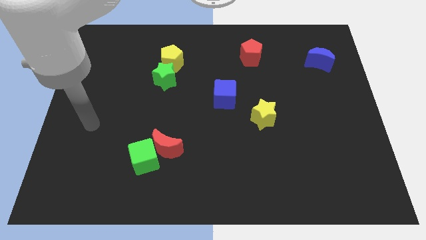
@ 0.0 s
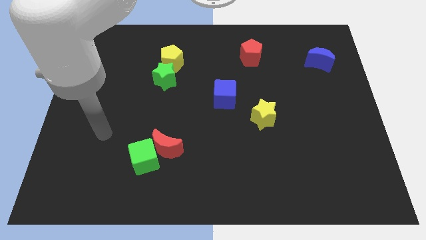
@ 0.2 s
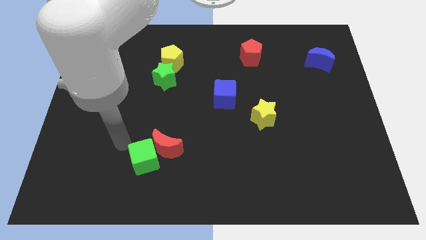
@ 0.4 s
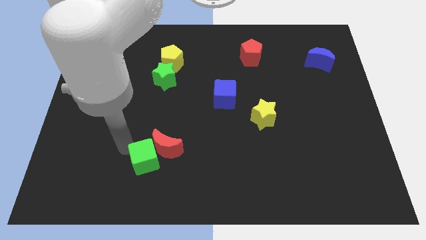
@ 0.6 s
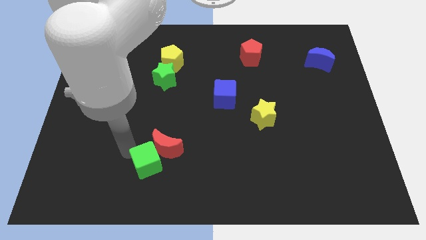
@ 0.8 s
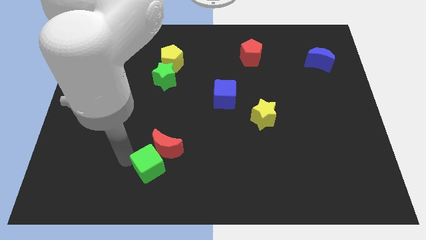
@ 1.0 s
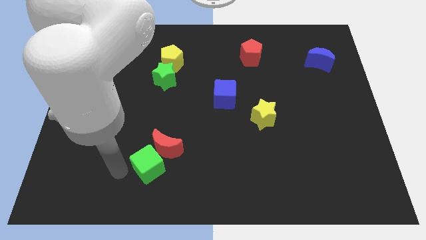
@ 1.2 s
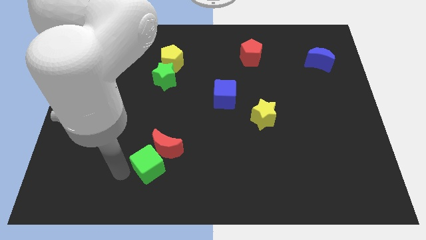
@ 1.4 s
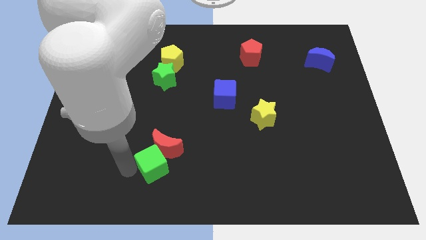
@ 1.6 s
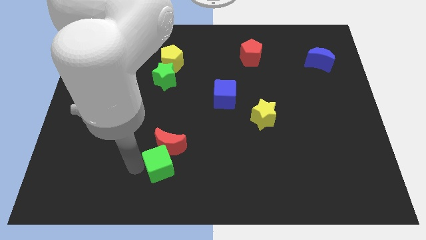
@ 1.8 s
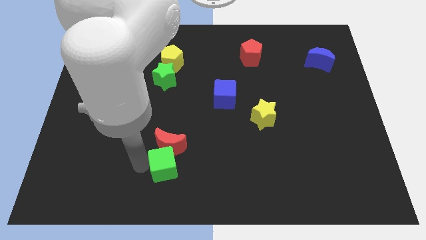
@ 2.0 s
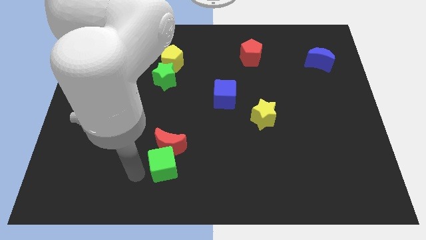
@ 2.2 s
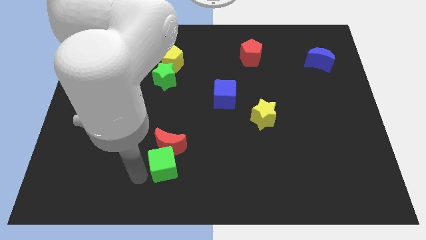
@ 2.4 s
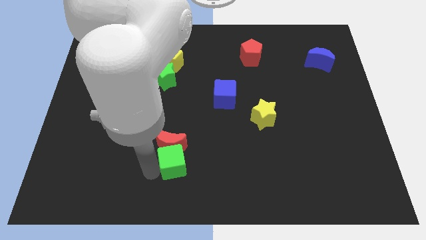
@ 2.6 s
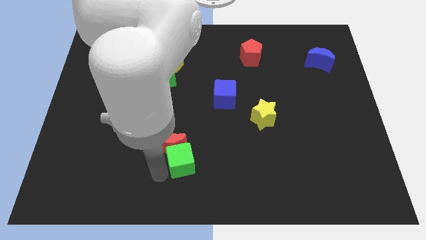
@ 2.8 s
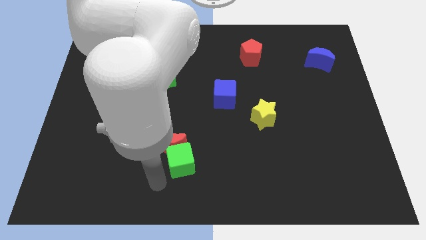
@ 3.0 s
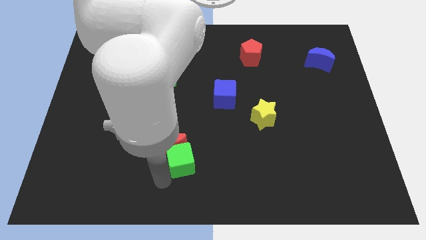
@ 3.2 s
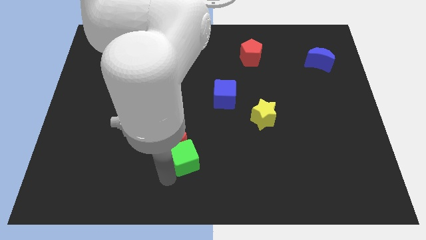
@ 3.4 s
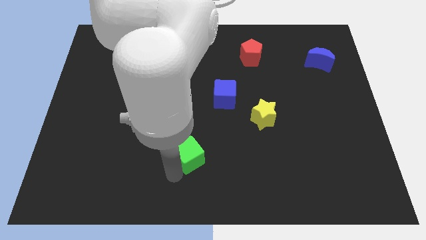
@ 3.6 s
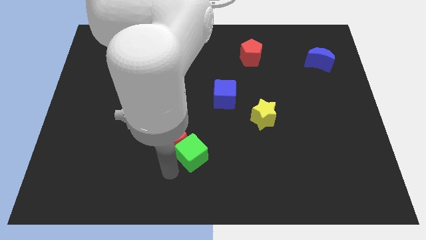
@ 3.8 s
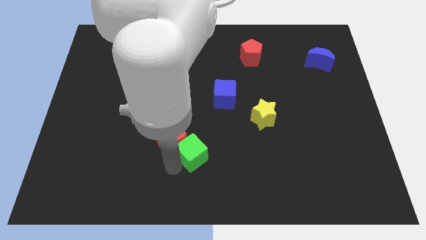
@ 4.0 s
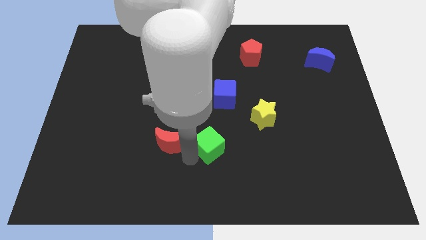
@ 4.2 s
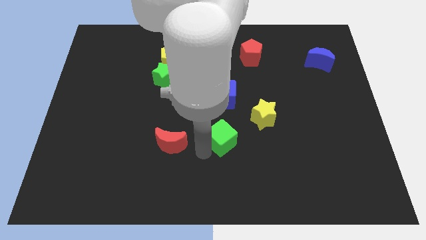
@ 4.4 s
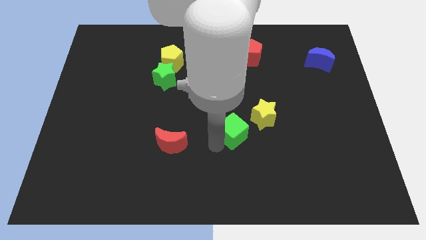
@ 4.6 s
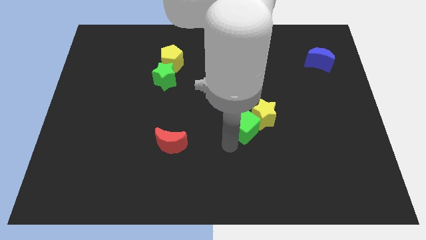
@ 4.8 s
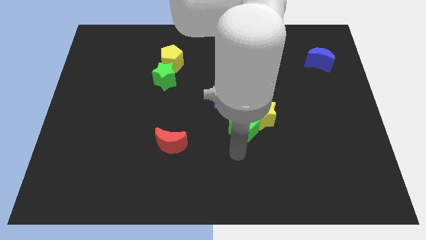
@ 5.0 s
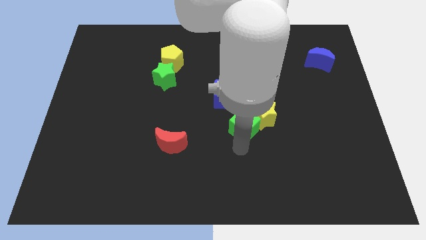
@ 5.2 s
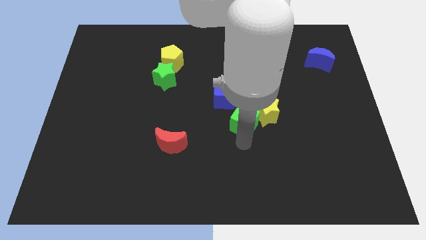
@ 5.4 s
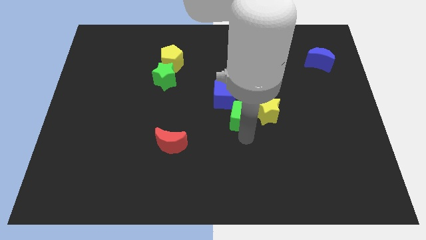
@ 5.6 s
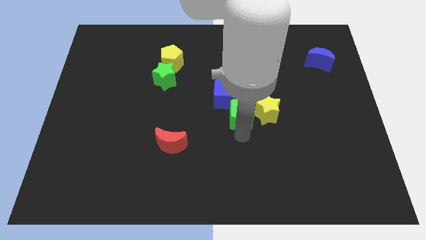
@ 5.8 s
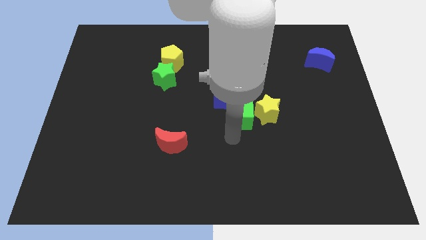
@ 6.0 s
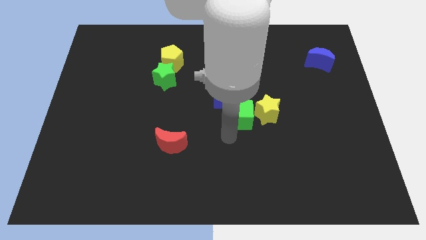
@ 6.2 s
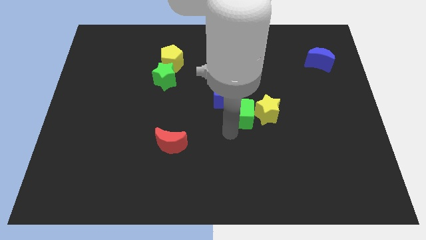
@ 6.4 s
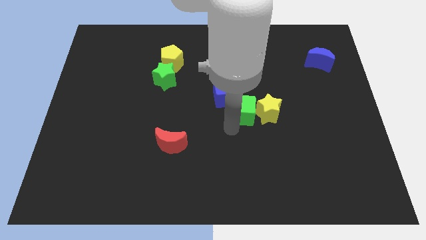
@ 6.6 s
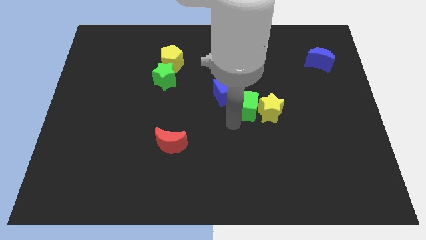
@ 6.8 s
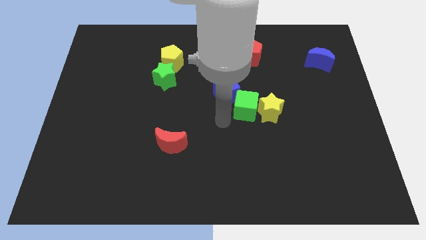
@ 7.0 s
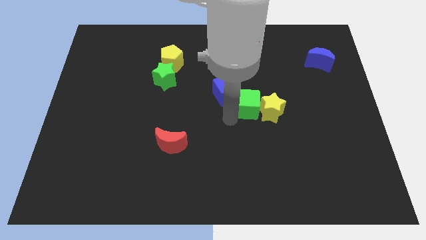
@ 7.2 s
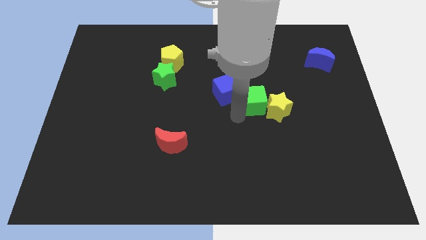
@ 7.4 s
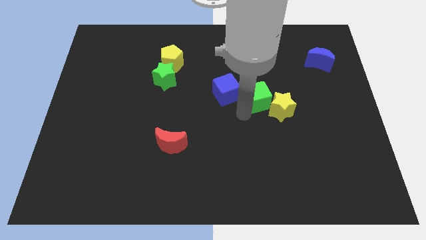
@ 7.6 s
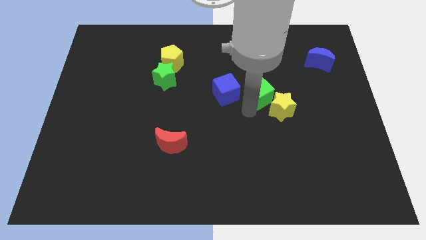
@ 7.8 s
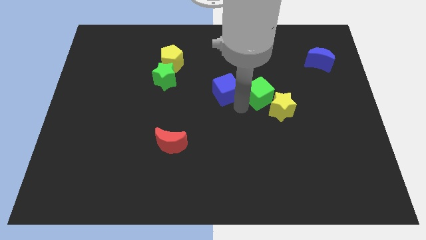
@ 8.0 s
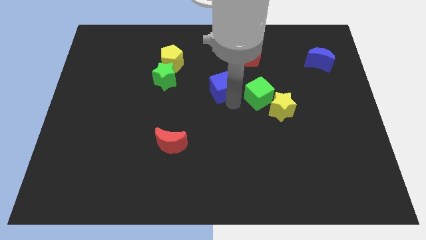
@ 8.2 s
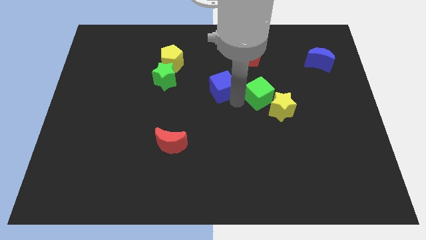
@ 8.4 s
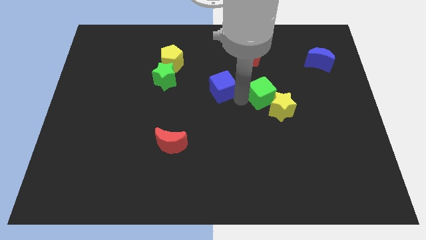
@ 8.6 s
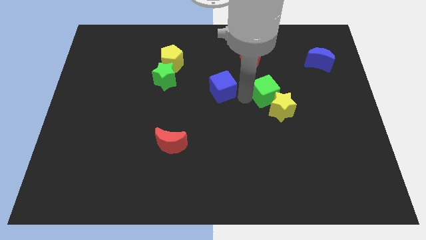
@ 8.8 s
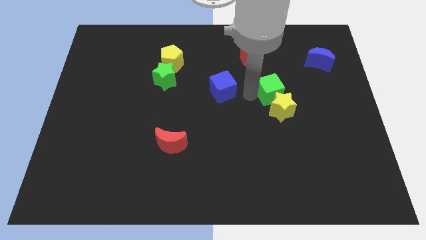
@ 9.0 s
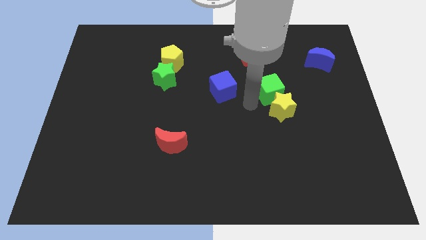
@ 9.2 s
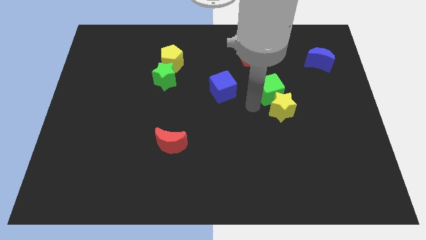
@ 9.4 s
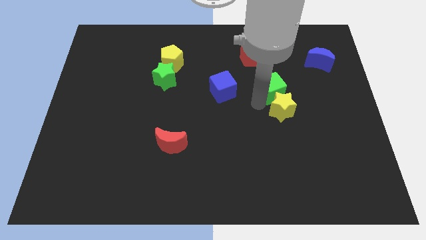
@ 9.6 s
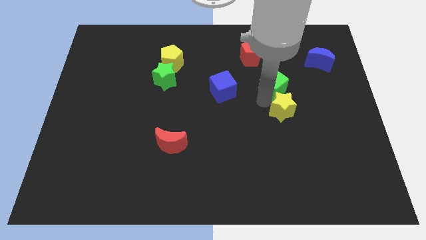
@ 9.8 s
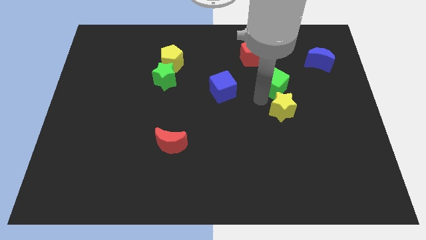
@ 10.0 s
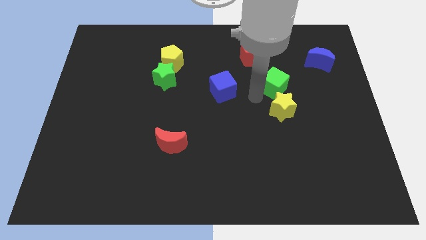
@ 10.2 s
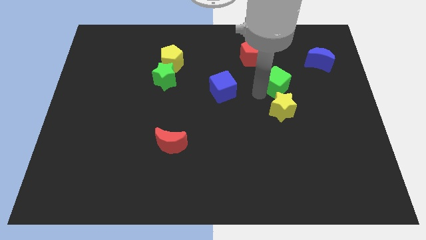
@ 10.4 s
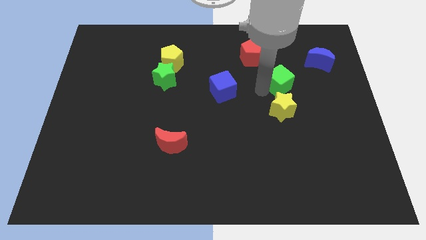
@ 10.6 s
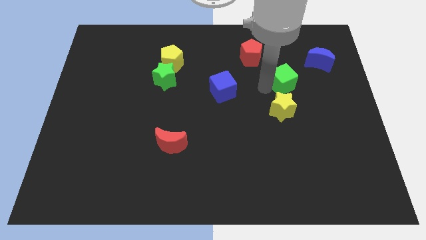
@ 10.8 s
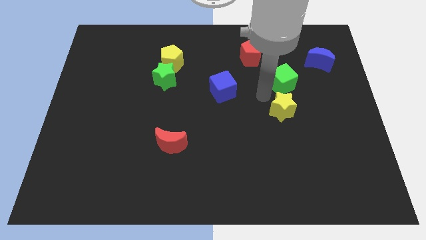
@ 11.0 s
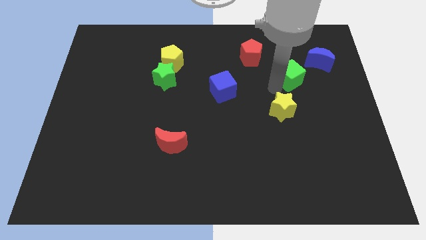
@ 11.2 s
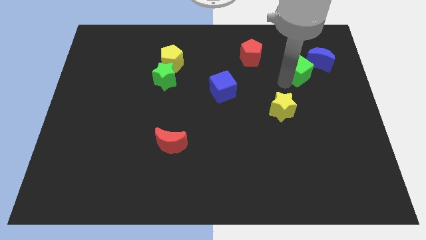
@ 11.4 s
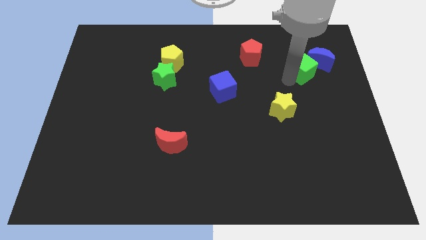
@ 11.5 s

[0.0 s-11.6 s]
move the green cube to the blue moon

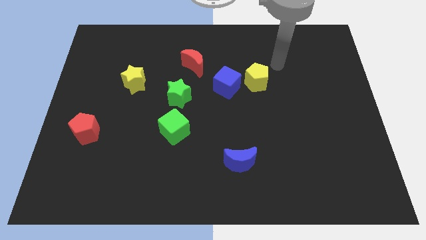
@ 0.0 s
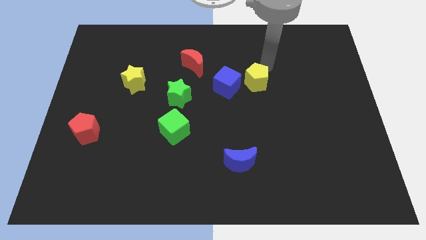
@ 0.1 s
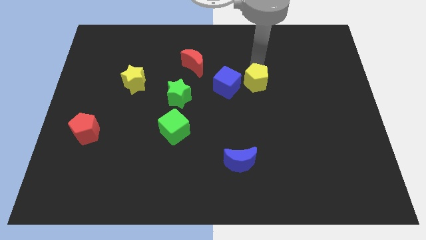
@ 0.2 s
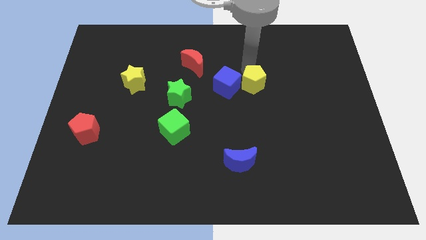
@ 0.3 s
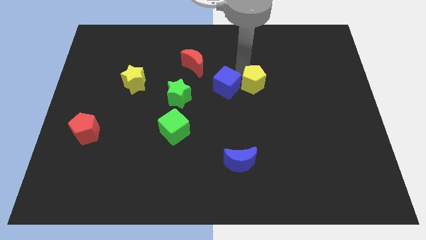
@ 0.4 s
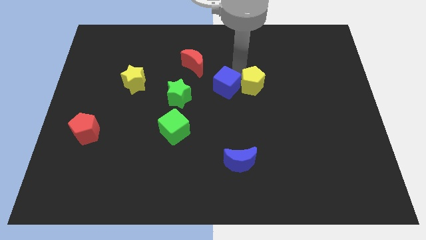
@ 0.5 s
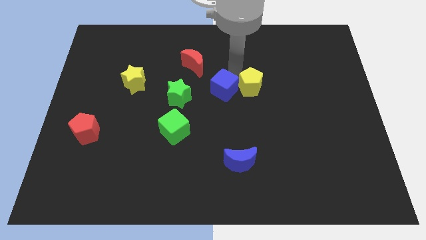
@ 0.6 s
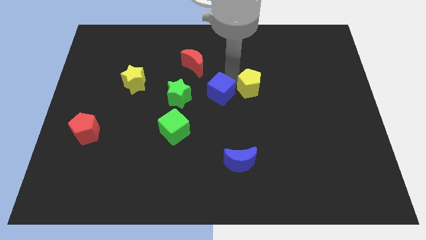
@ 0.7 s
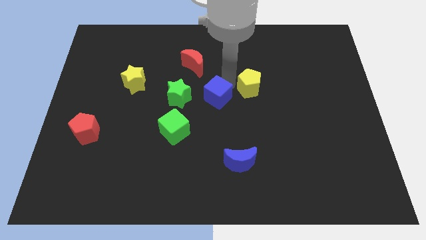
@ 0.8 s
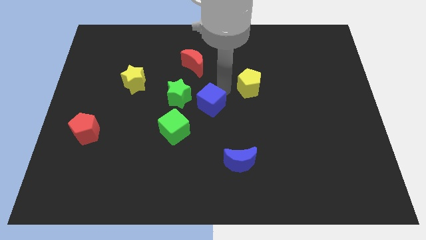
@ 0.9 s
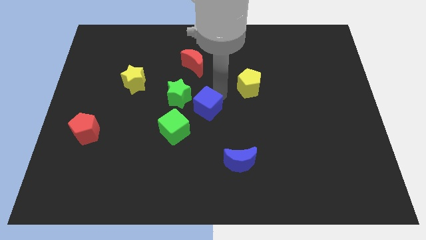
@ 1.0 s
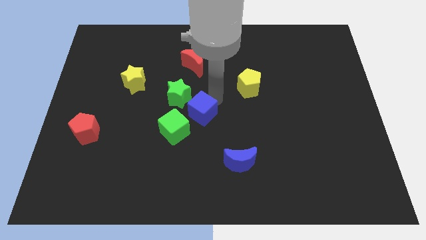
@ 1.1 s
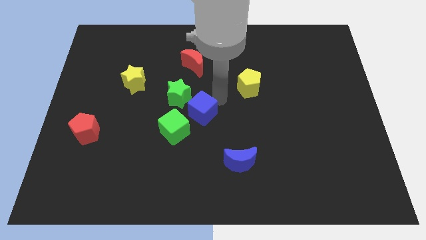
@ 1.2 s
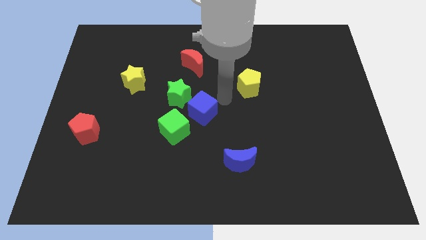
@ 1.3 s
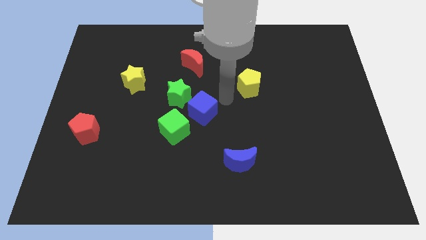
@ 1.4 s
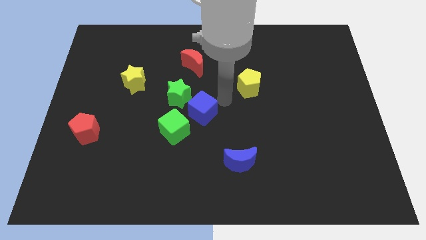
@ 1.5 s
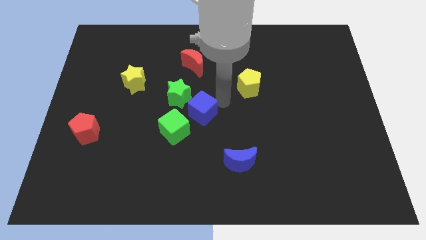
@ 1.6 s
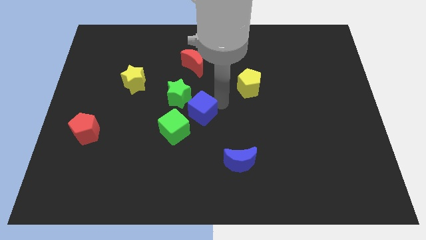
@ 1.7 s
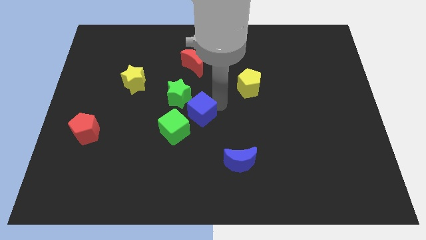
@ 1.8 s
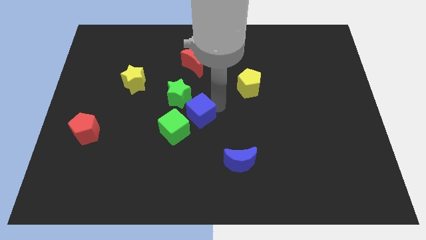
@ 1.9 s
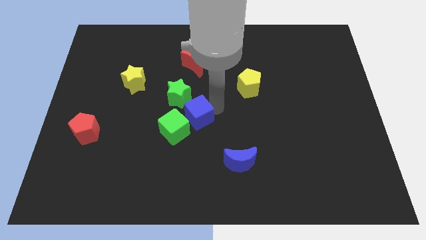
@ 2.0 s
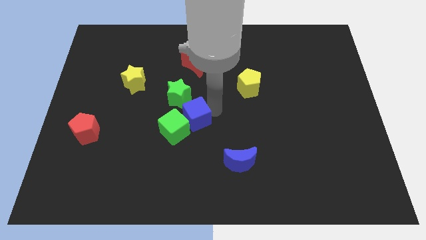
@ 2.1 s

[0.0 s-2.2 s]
slide the blue cube close to the green cube
